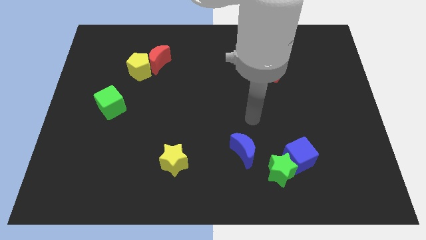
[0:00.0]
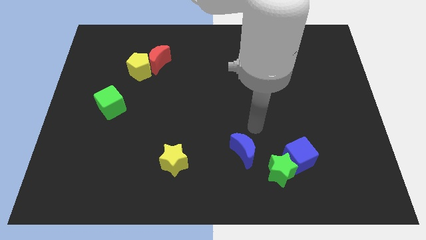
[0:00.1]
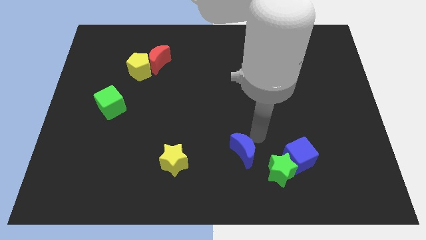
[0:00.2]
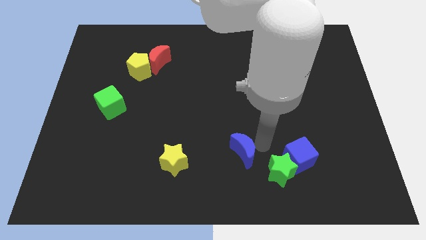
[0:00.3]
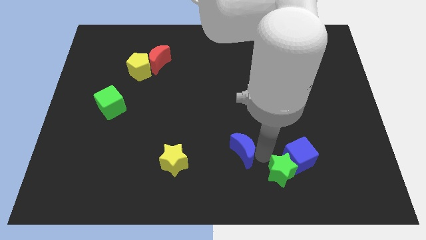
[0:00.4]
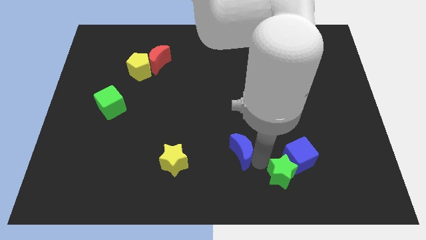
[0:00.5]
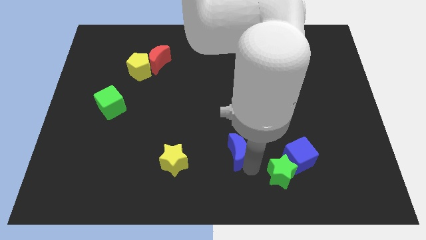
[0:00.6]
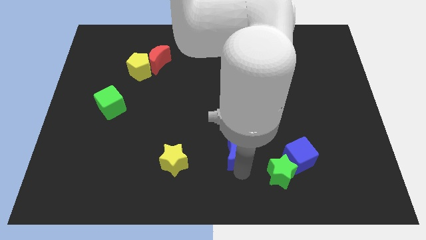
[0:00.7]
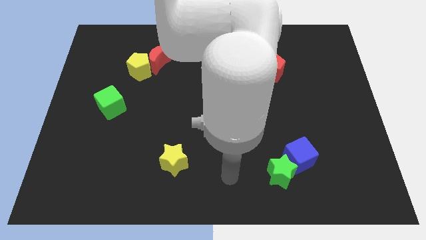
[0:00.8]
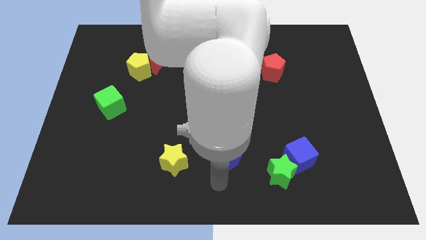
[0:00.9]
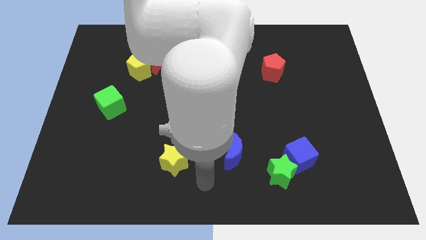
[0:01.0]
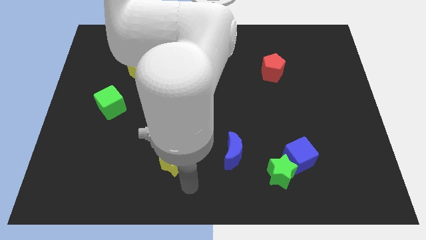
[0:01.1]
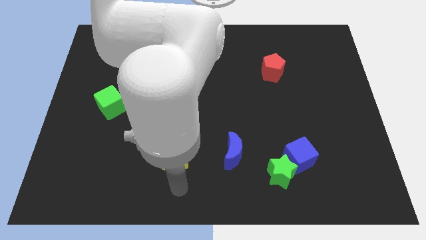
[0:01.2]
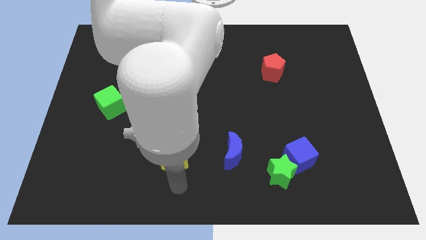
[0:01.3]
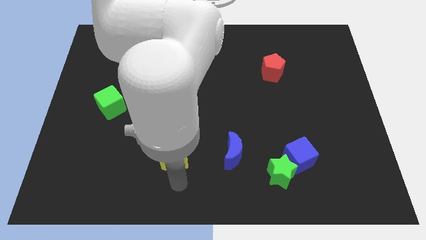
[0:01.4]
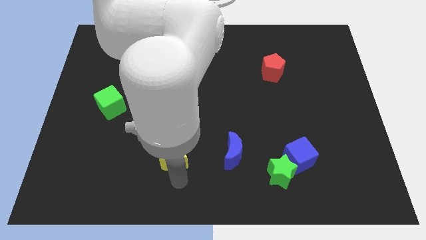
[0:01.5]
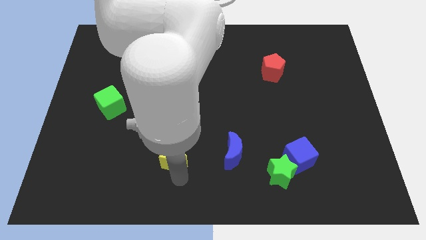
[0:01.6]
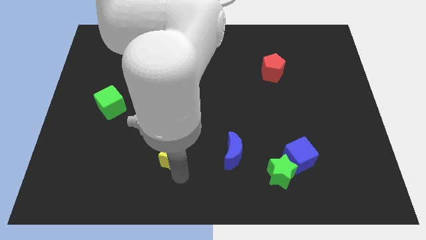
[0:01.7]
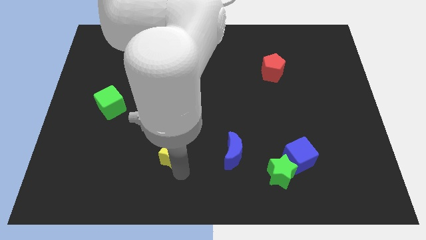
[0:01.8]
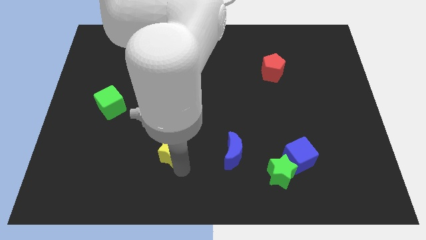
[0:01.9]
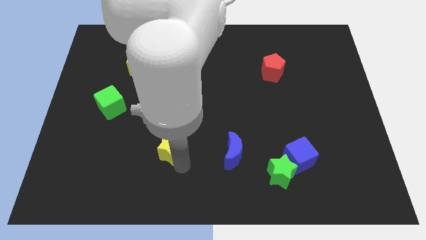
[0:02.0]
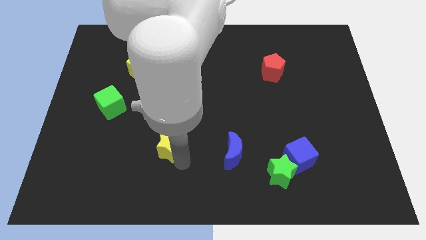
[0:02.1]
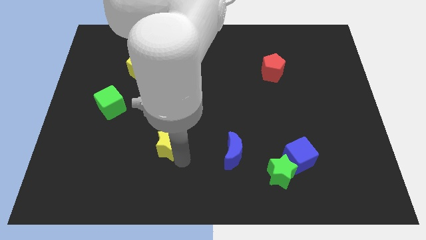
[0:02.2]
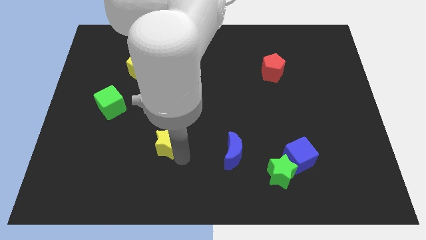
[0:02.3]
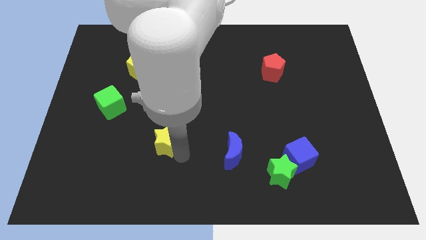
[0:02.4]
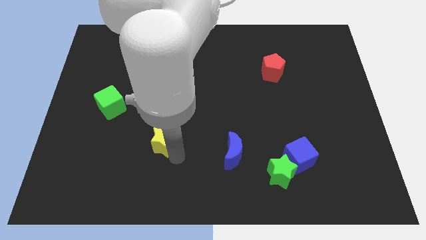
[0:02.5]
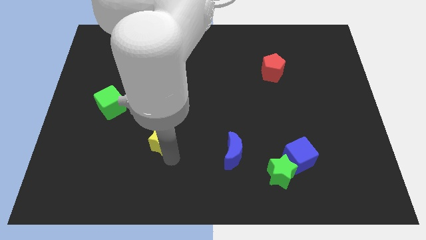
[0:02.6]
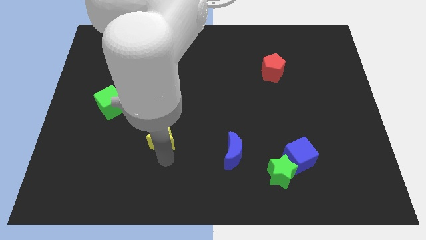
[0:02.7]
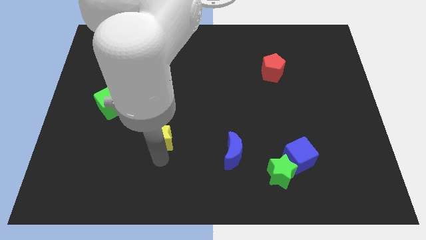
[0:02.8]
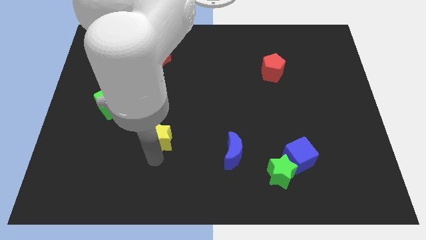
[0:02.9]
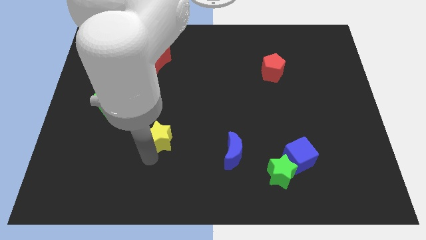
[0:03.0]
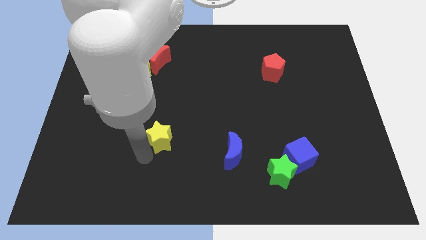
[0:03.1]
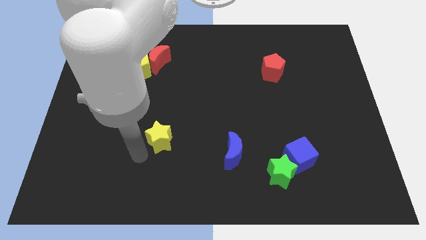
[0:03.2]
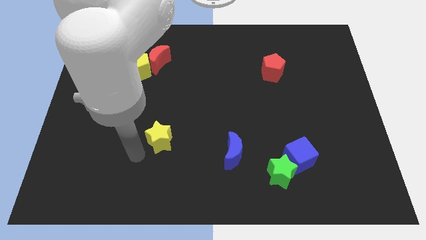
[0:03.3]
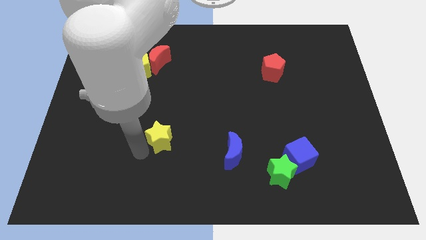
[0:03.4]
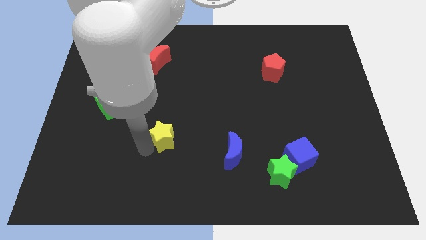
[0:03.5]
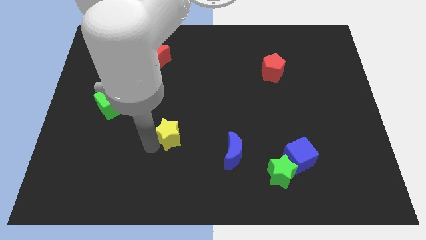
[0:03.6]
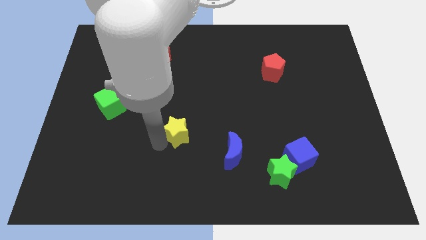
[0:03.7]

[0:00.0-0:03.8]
push the yellow star up somewhat

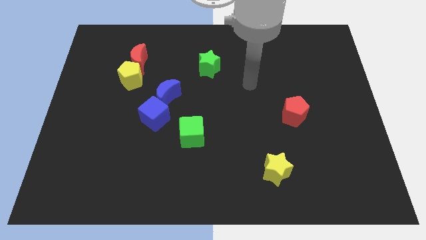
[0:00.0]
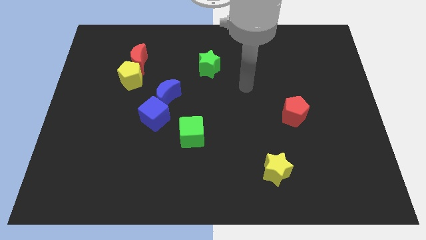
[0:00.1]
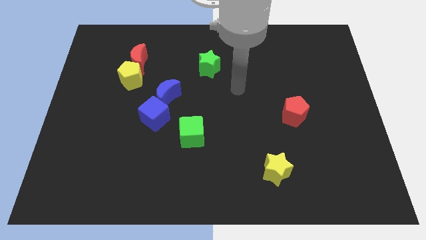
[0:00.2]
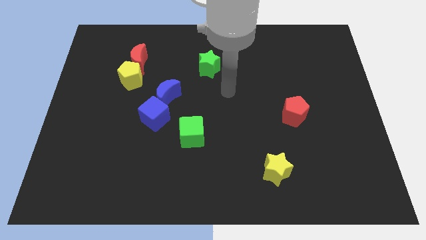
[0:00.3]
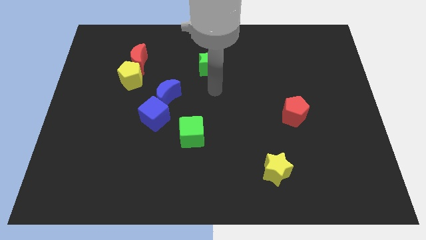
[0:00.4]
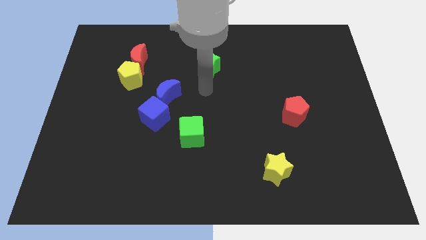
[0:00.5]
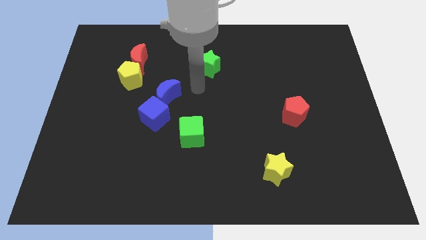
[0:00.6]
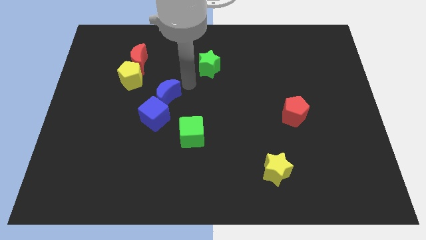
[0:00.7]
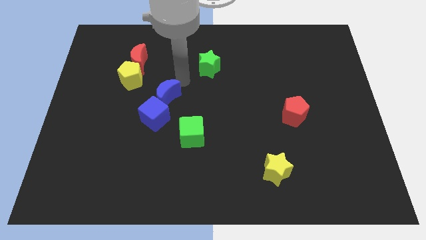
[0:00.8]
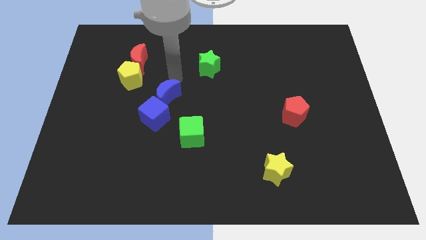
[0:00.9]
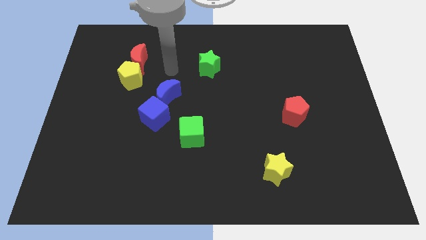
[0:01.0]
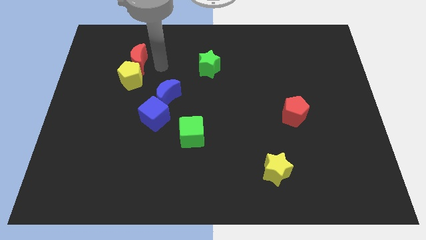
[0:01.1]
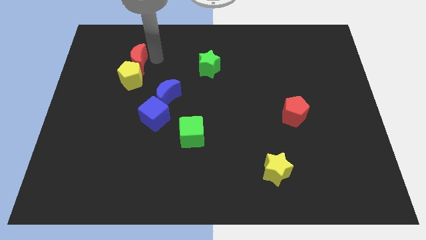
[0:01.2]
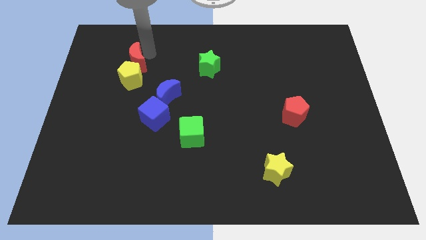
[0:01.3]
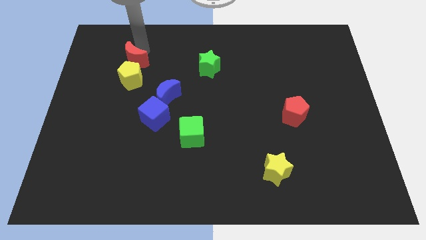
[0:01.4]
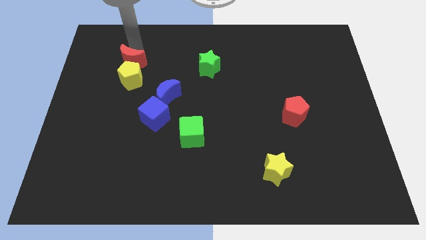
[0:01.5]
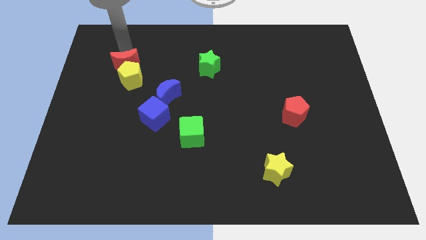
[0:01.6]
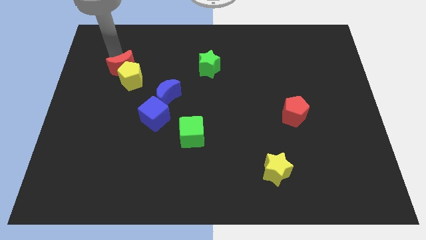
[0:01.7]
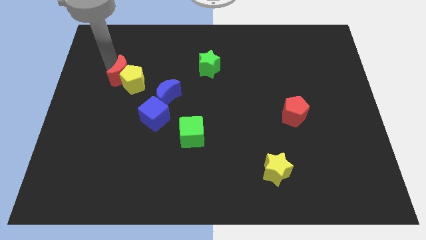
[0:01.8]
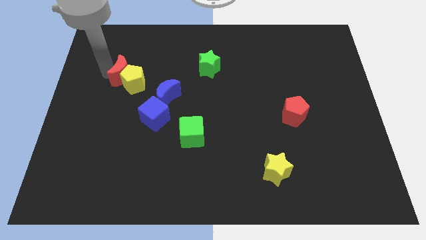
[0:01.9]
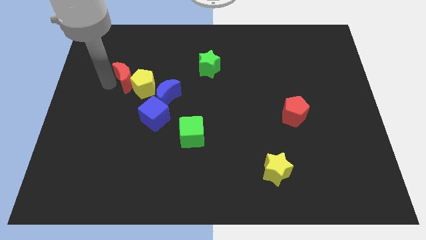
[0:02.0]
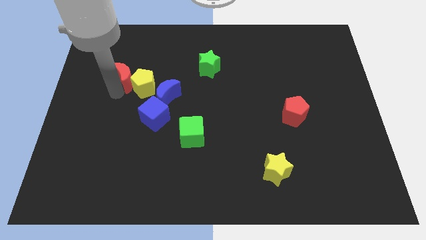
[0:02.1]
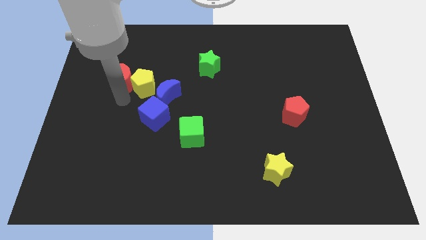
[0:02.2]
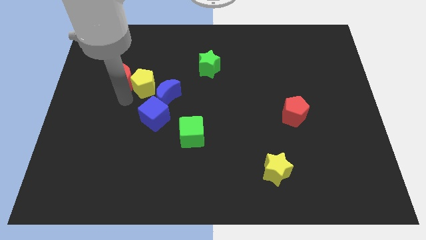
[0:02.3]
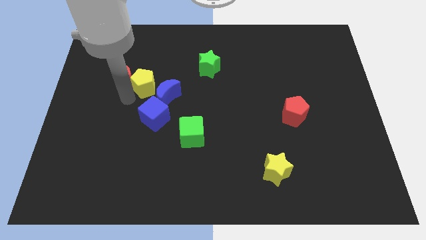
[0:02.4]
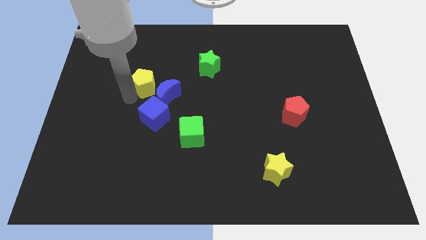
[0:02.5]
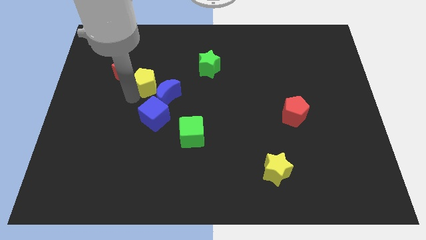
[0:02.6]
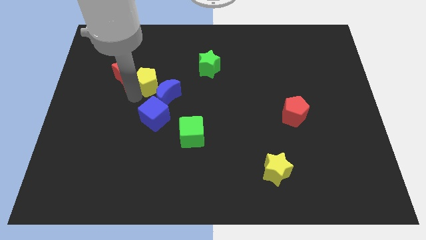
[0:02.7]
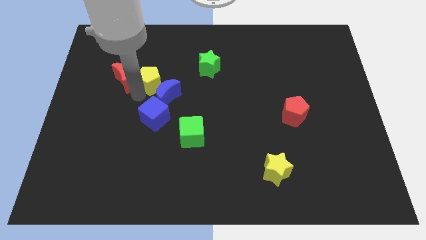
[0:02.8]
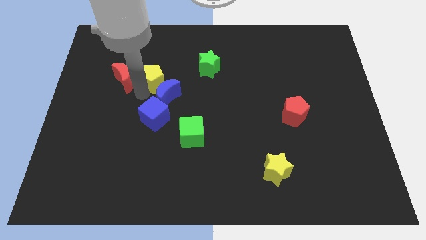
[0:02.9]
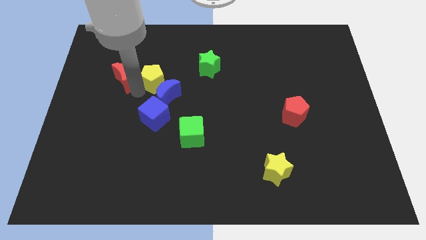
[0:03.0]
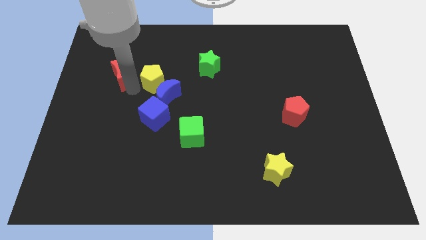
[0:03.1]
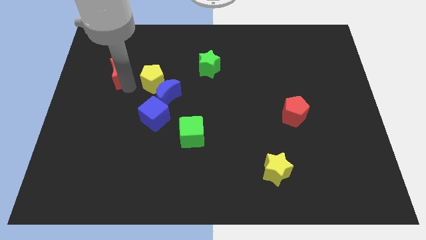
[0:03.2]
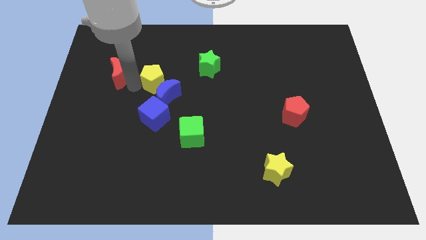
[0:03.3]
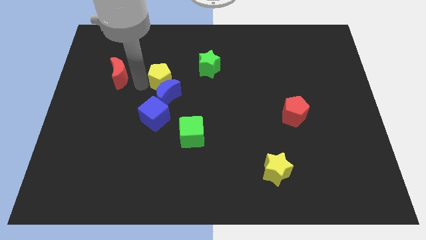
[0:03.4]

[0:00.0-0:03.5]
slide the yellow pentagon a bit to the right

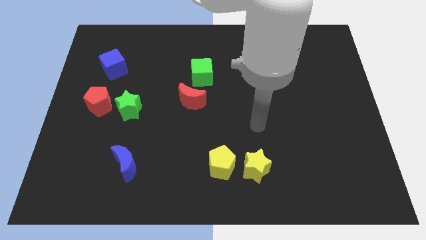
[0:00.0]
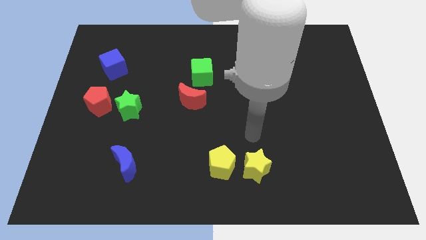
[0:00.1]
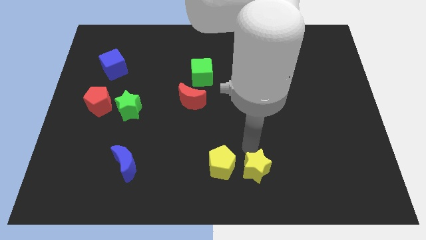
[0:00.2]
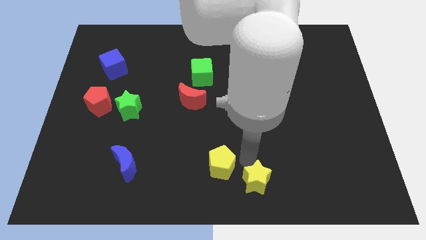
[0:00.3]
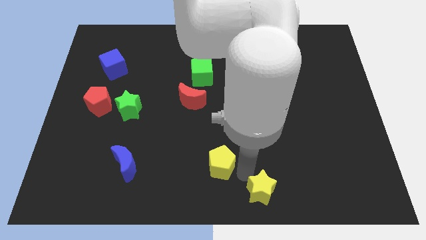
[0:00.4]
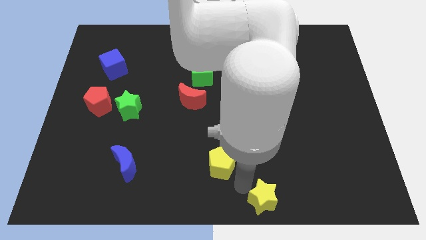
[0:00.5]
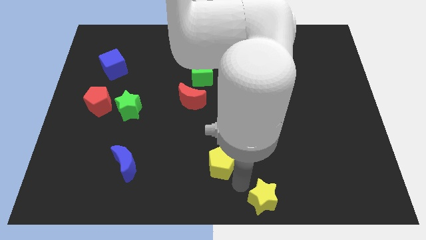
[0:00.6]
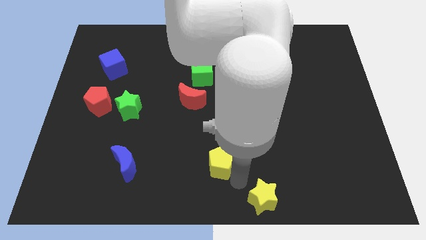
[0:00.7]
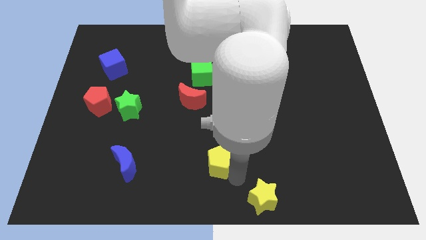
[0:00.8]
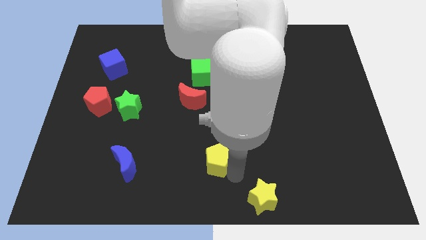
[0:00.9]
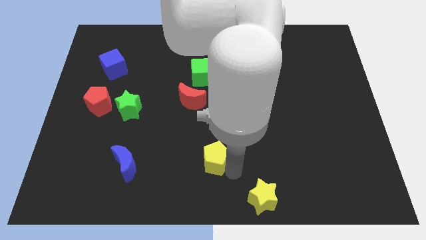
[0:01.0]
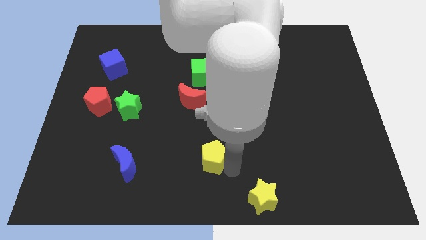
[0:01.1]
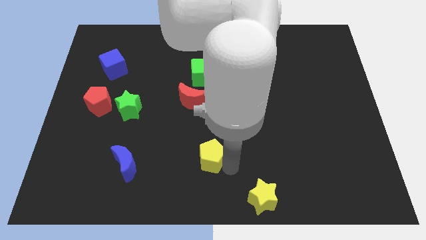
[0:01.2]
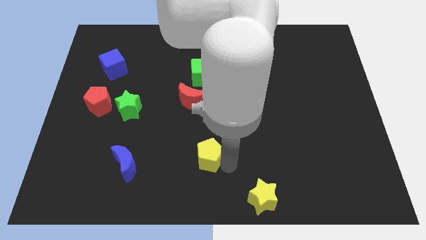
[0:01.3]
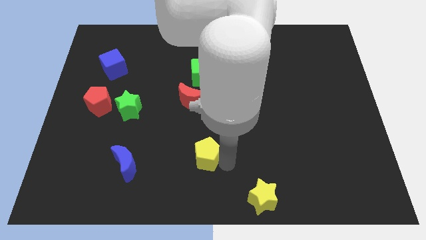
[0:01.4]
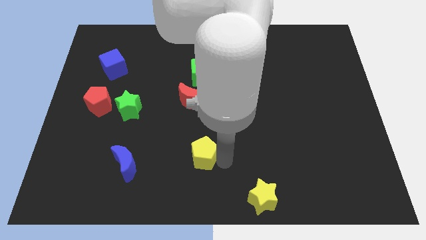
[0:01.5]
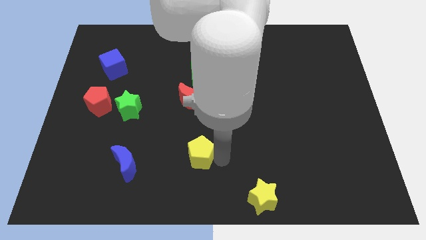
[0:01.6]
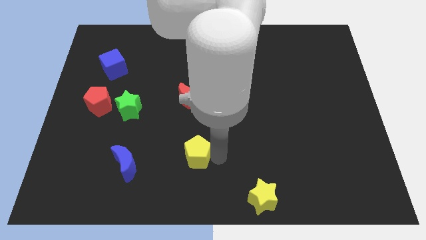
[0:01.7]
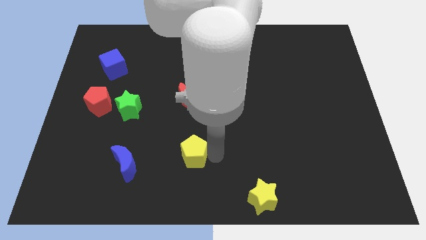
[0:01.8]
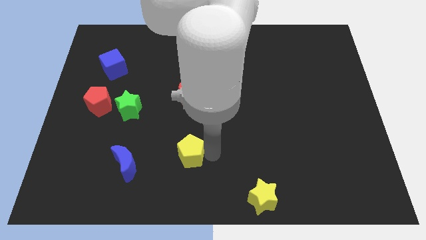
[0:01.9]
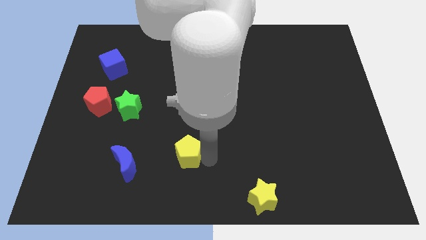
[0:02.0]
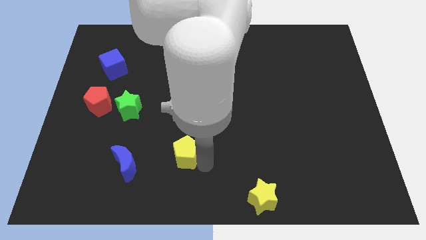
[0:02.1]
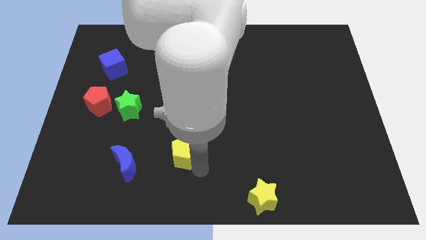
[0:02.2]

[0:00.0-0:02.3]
push the yellow pentagon upwards and left diagonally somewhat
